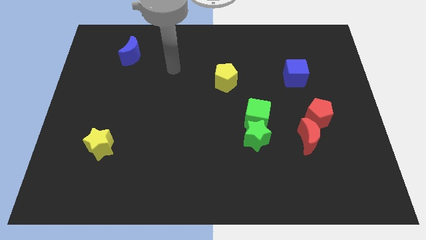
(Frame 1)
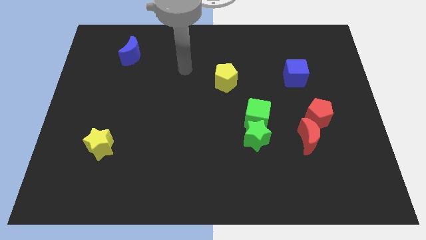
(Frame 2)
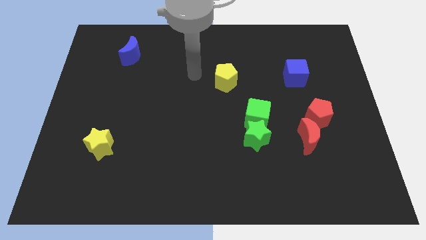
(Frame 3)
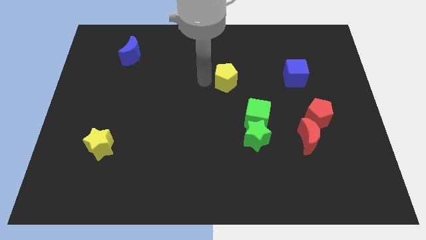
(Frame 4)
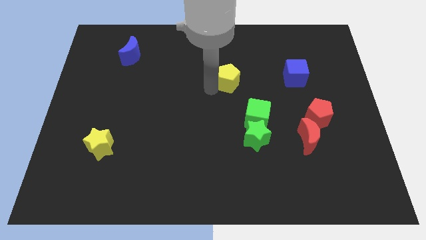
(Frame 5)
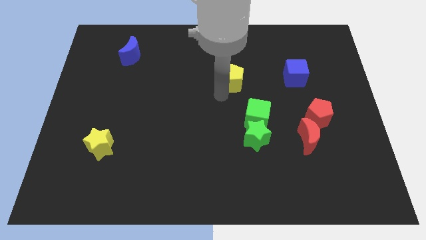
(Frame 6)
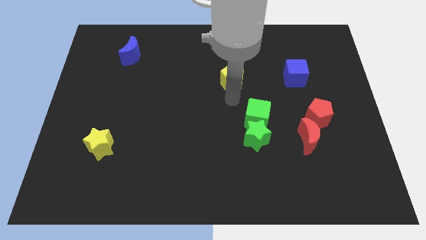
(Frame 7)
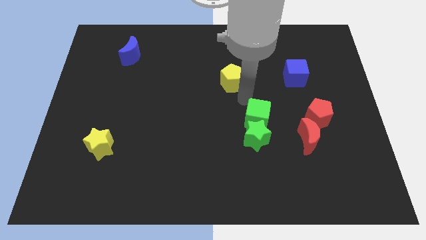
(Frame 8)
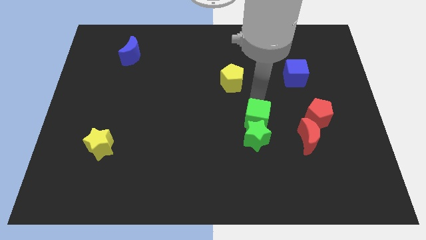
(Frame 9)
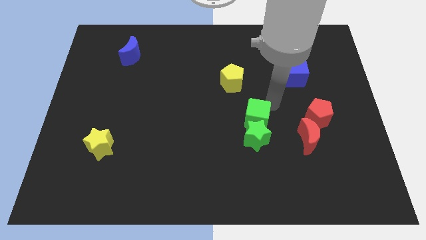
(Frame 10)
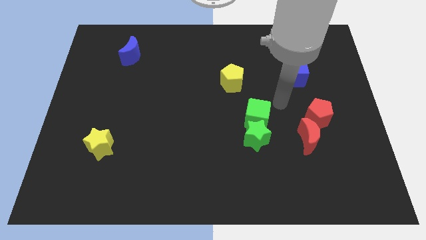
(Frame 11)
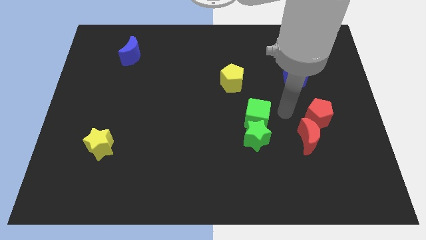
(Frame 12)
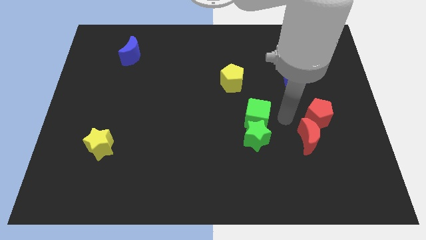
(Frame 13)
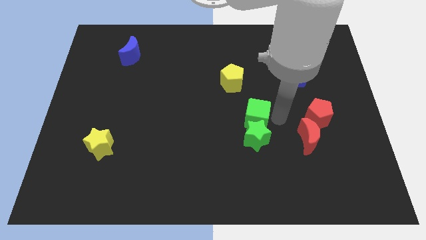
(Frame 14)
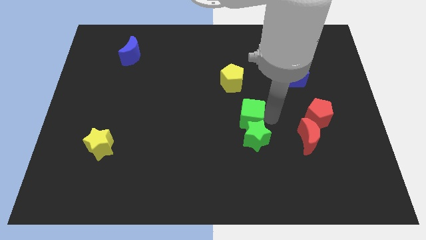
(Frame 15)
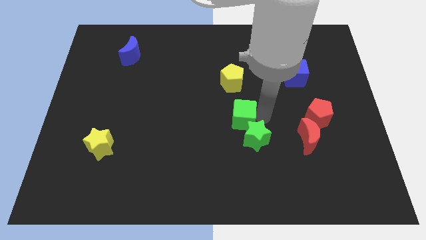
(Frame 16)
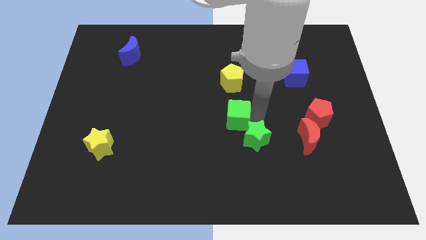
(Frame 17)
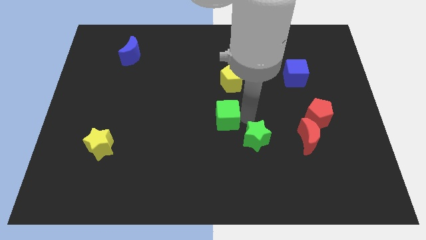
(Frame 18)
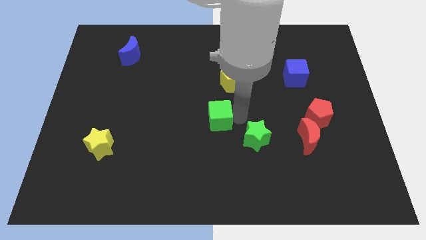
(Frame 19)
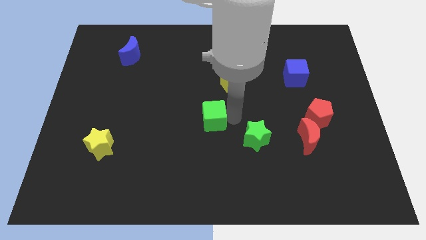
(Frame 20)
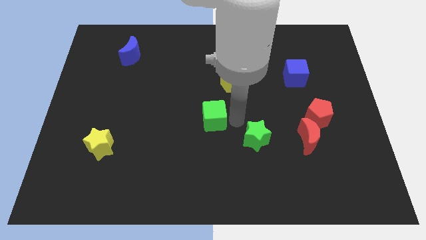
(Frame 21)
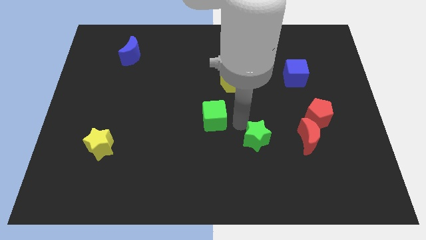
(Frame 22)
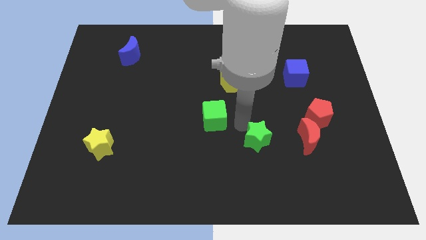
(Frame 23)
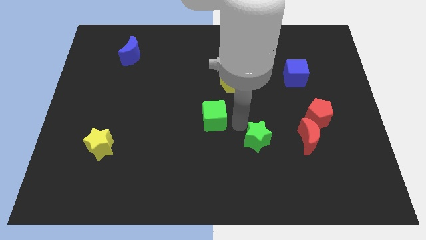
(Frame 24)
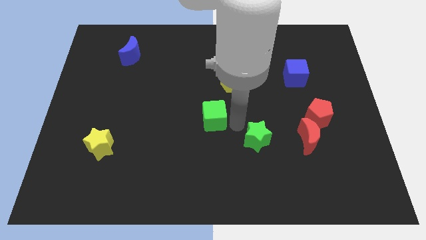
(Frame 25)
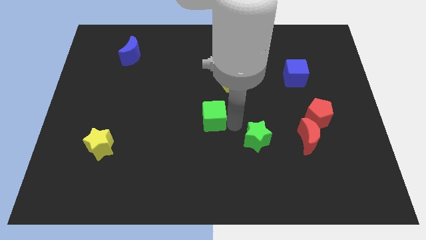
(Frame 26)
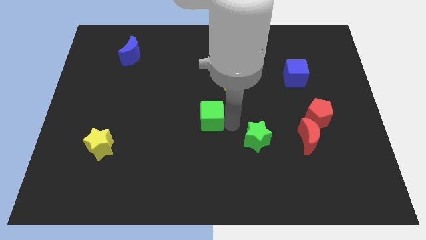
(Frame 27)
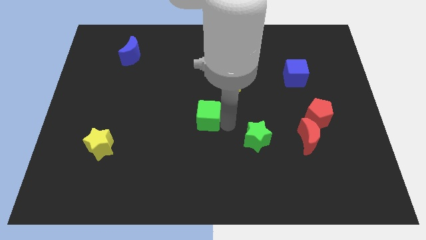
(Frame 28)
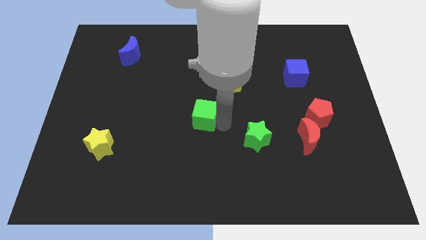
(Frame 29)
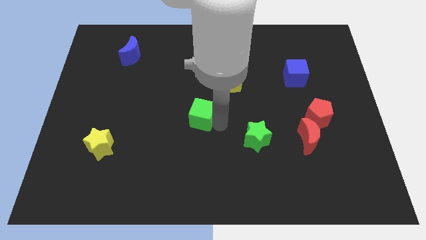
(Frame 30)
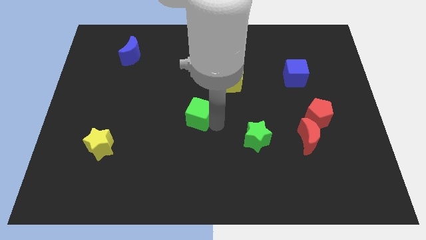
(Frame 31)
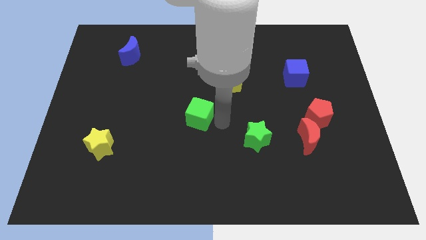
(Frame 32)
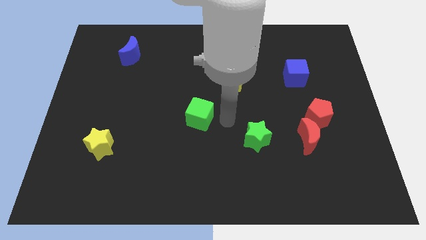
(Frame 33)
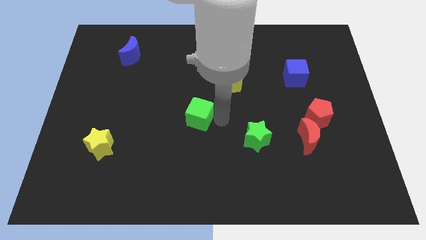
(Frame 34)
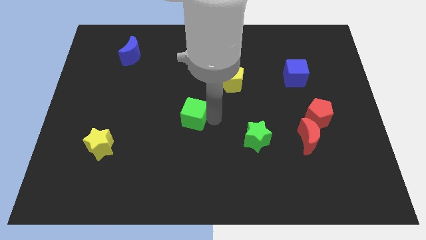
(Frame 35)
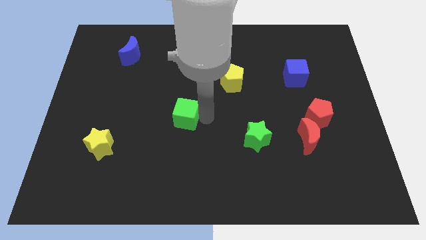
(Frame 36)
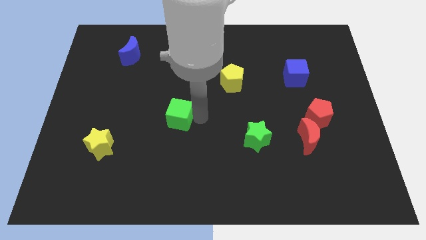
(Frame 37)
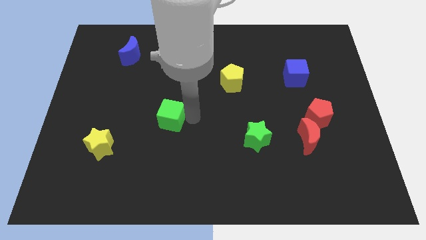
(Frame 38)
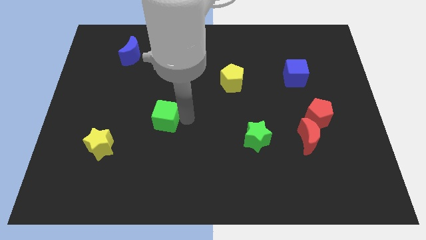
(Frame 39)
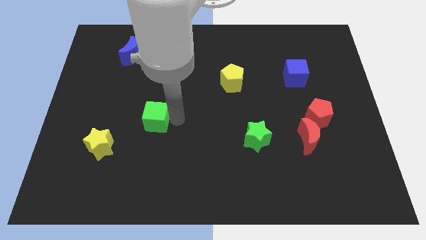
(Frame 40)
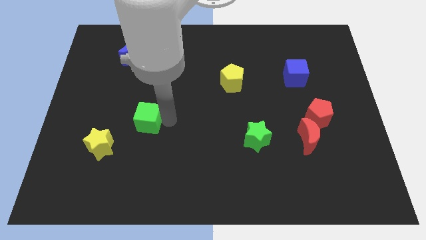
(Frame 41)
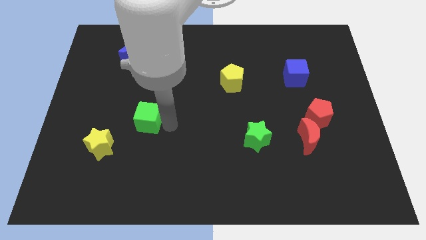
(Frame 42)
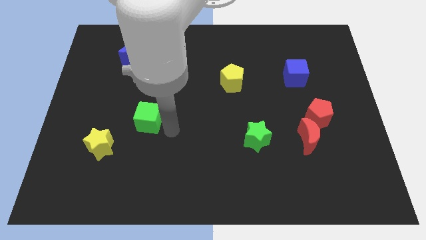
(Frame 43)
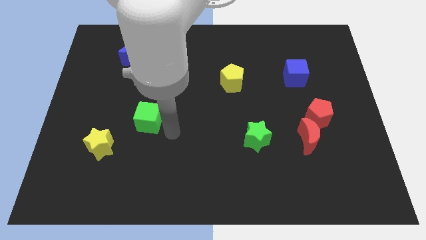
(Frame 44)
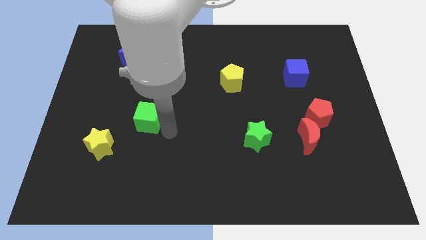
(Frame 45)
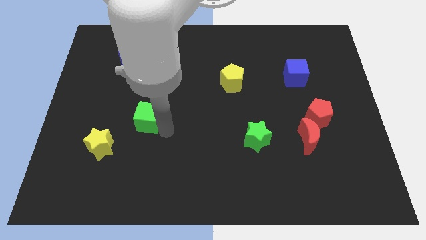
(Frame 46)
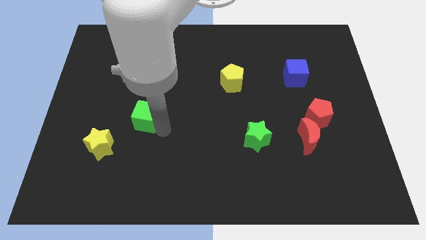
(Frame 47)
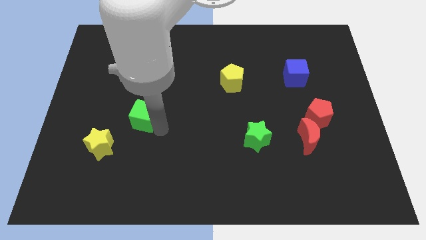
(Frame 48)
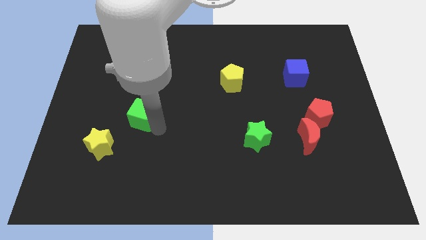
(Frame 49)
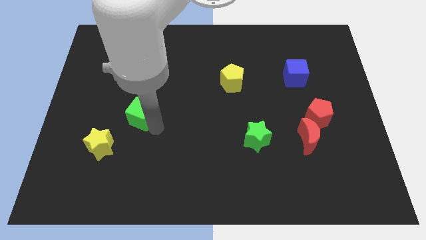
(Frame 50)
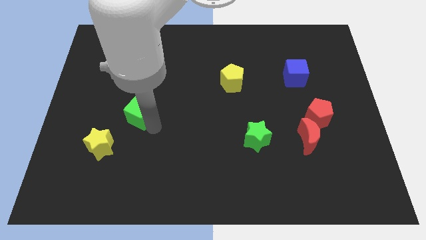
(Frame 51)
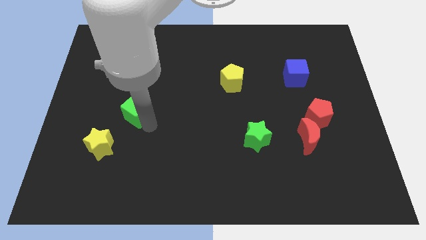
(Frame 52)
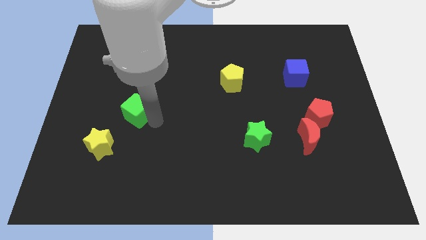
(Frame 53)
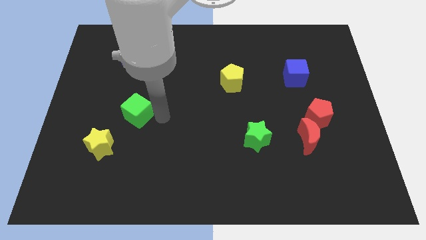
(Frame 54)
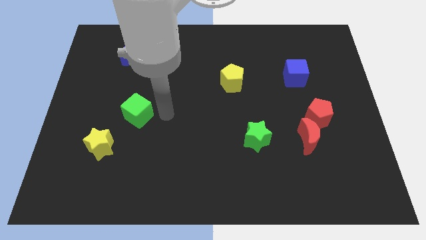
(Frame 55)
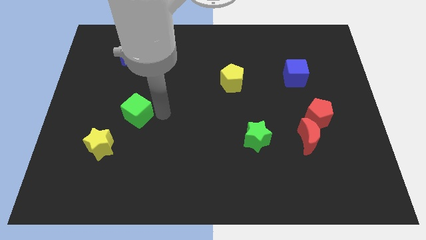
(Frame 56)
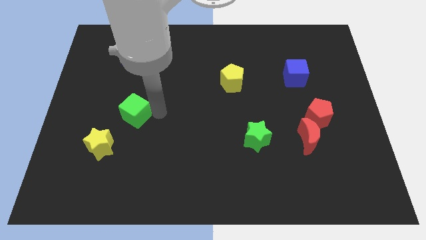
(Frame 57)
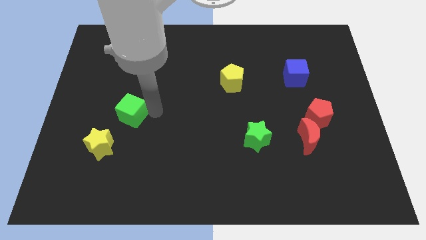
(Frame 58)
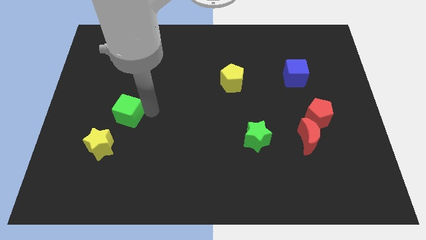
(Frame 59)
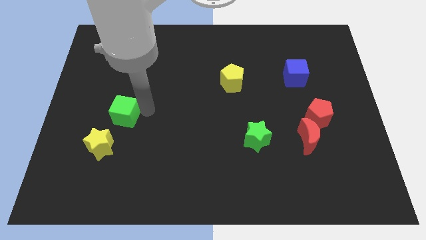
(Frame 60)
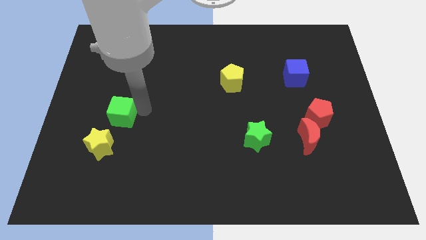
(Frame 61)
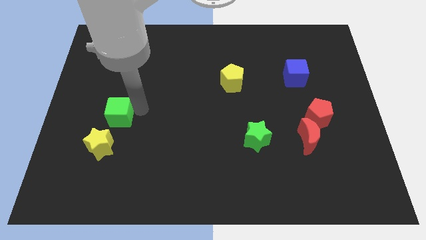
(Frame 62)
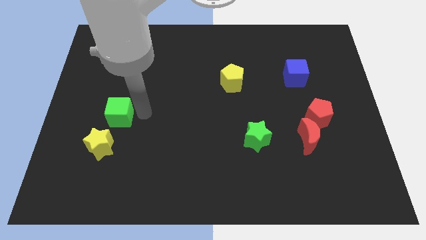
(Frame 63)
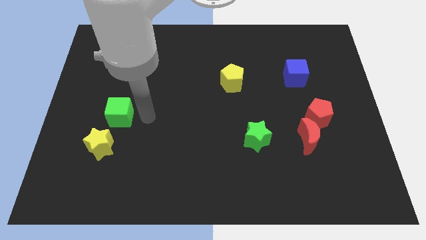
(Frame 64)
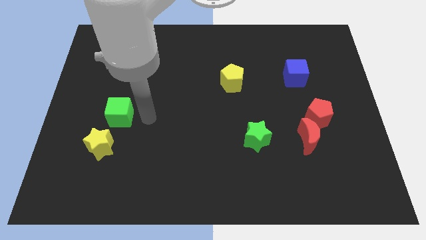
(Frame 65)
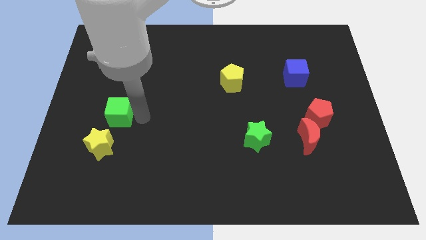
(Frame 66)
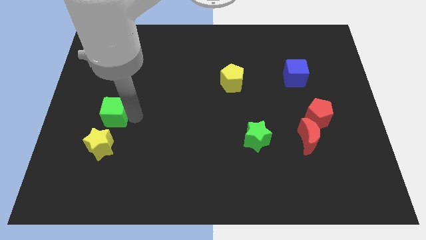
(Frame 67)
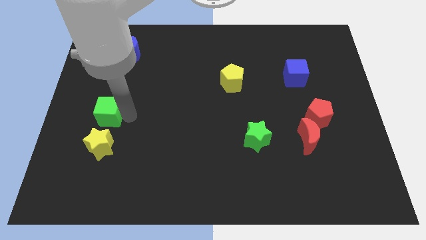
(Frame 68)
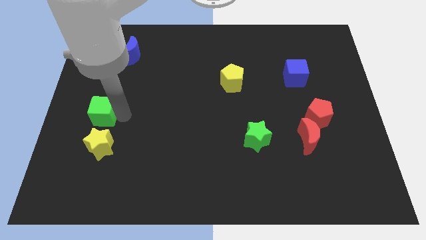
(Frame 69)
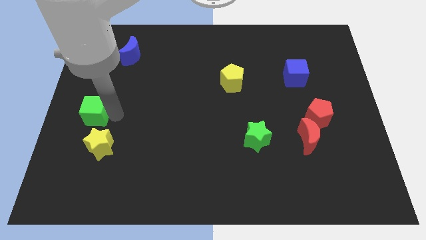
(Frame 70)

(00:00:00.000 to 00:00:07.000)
move the green cube to the center left
